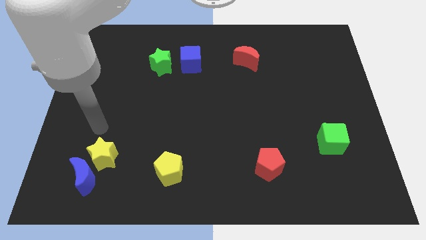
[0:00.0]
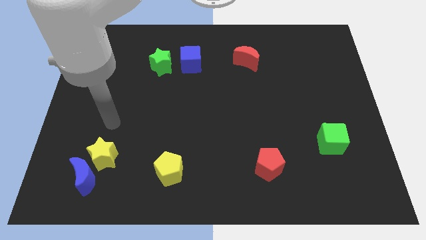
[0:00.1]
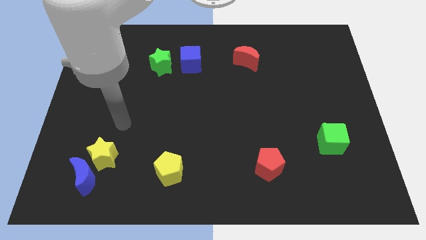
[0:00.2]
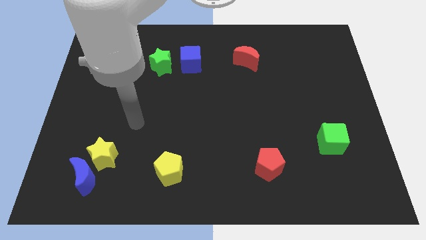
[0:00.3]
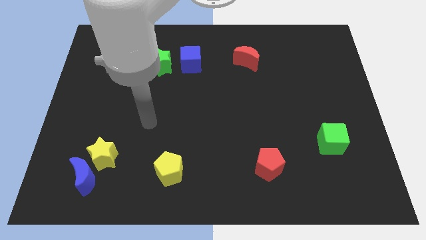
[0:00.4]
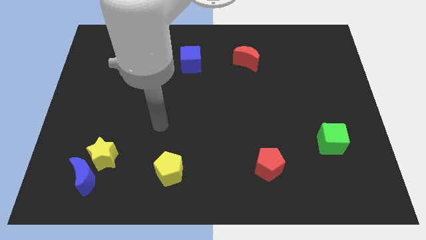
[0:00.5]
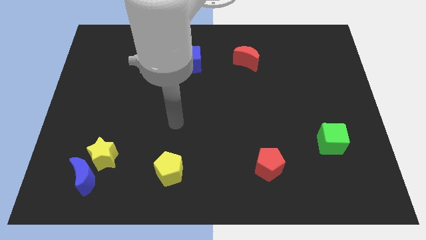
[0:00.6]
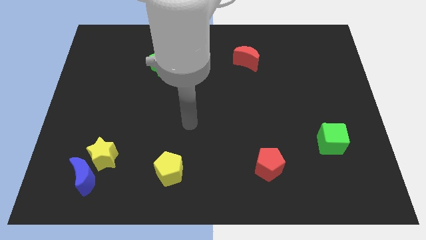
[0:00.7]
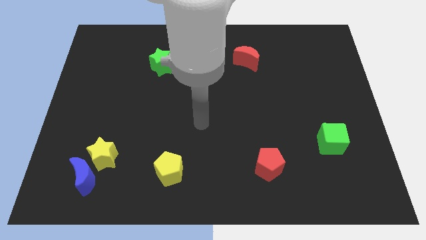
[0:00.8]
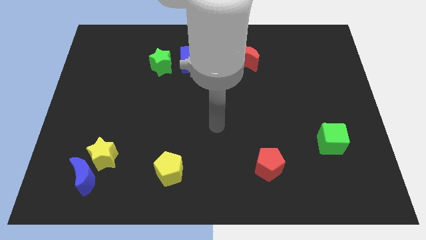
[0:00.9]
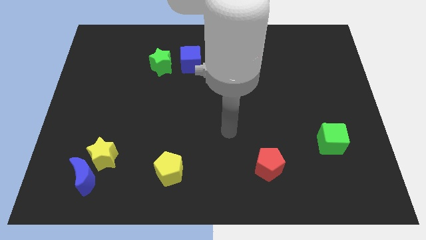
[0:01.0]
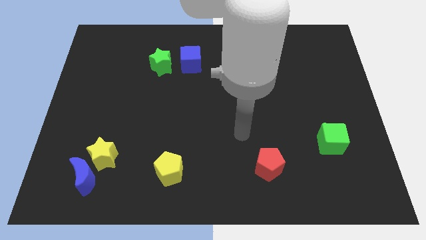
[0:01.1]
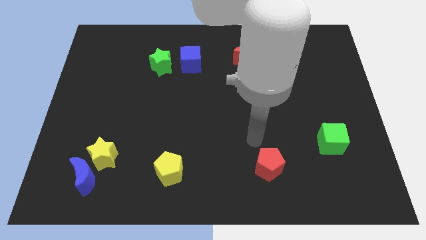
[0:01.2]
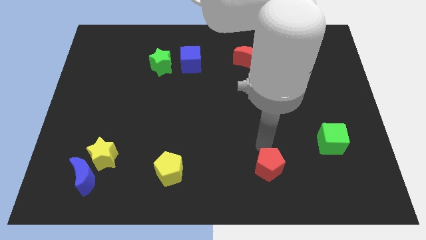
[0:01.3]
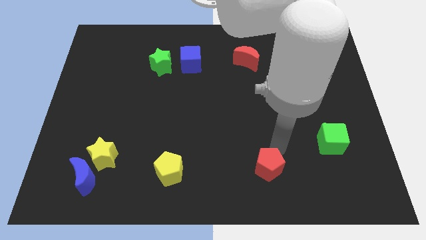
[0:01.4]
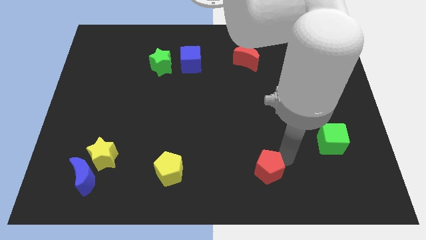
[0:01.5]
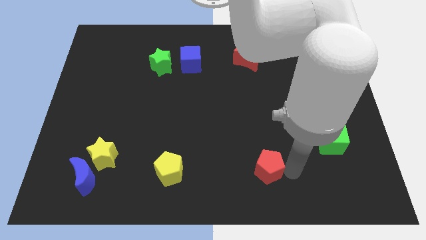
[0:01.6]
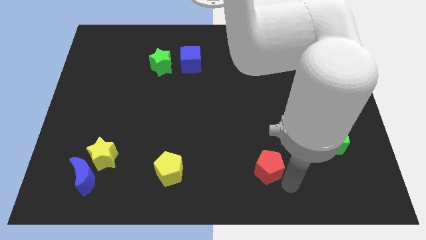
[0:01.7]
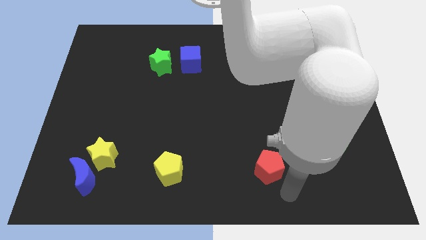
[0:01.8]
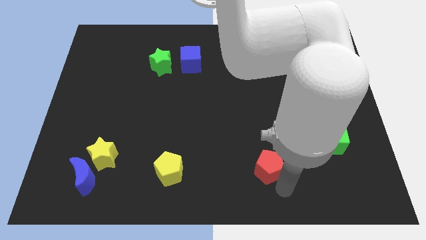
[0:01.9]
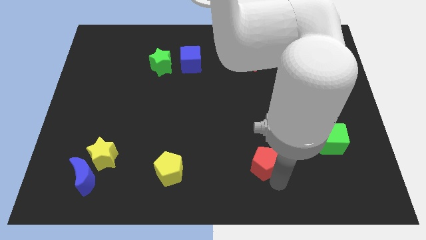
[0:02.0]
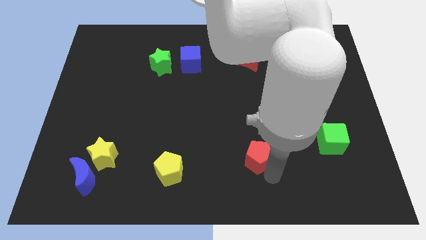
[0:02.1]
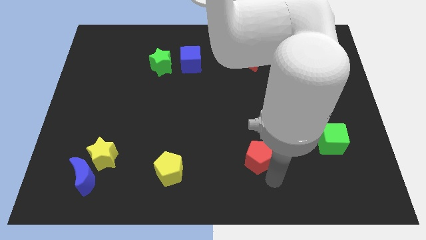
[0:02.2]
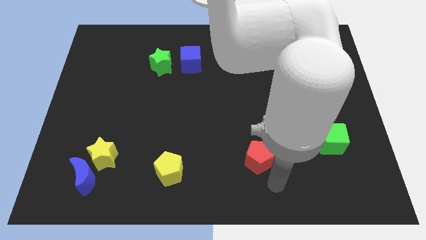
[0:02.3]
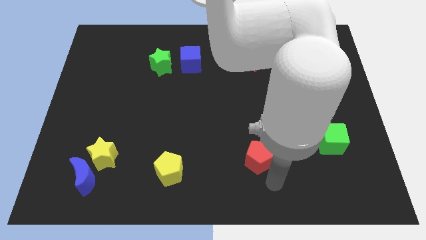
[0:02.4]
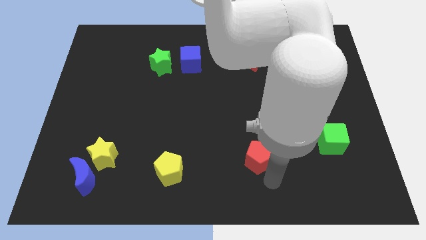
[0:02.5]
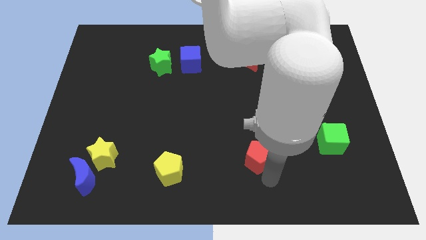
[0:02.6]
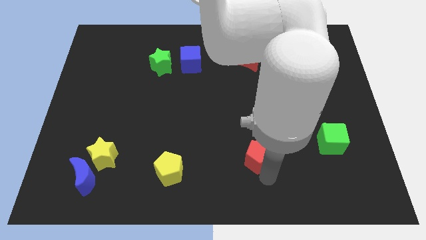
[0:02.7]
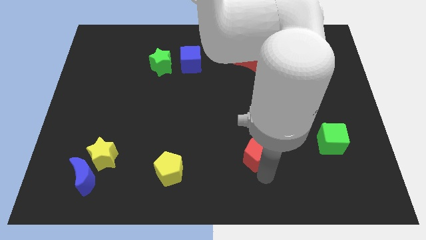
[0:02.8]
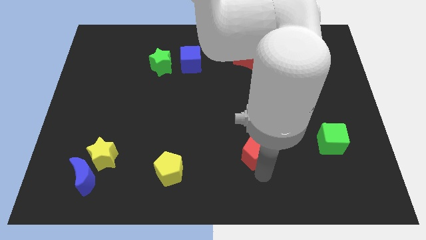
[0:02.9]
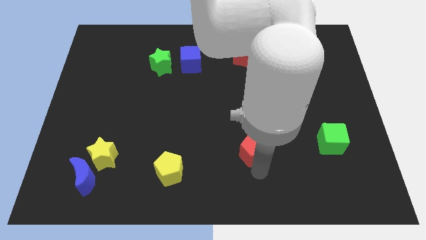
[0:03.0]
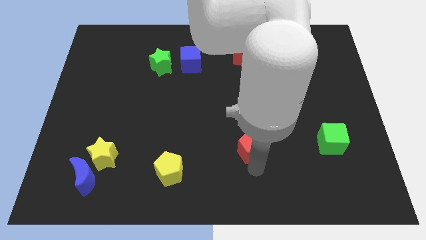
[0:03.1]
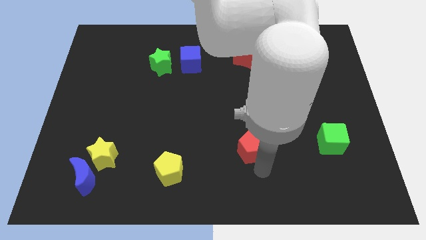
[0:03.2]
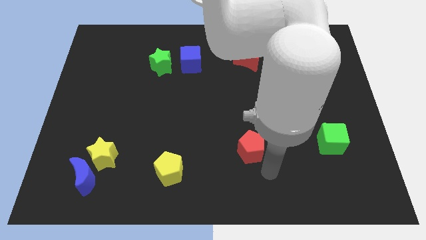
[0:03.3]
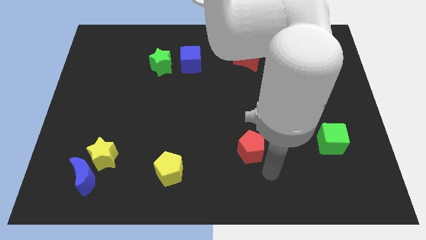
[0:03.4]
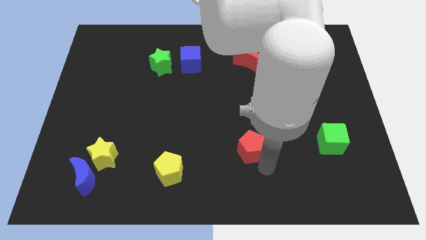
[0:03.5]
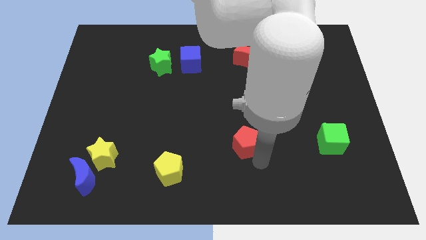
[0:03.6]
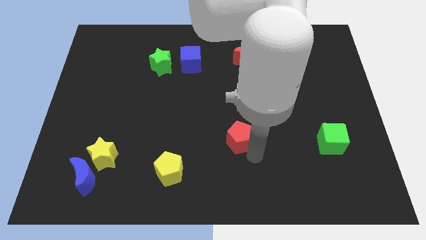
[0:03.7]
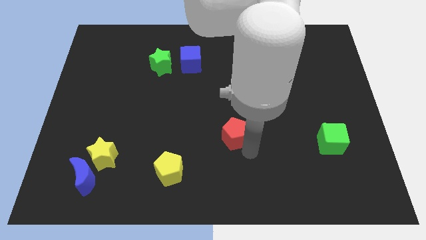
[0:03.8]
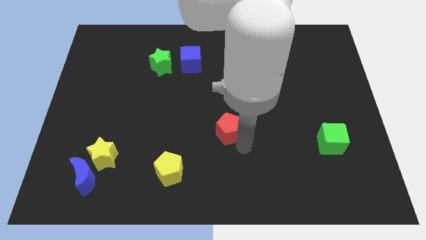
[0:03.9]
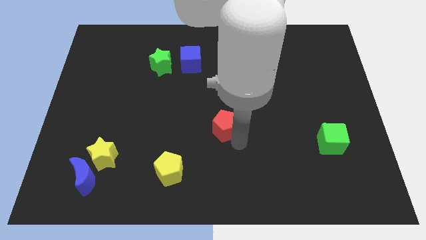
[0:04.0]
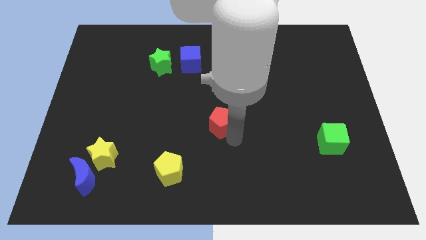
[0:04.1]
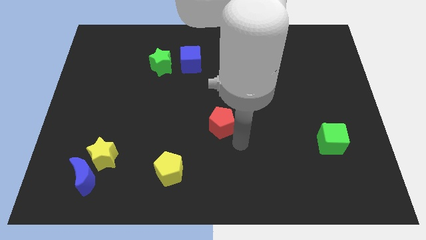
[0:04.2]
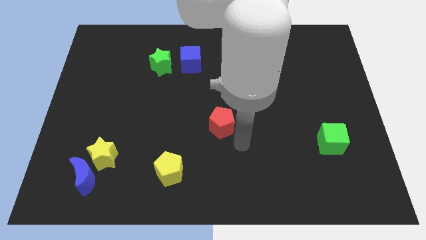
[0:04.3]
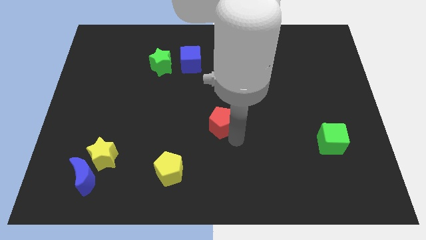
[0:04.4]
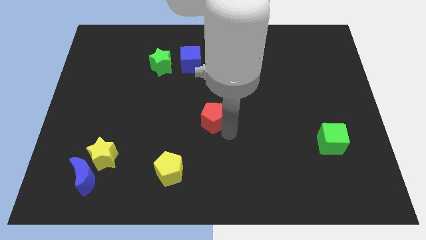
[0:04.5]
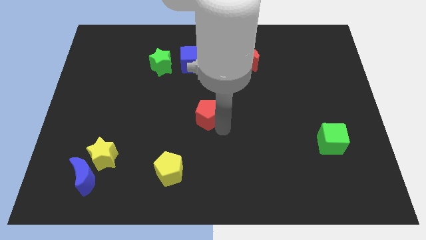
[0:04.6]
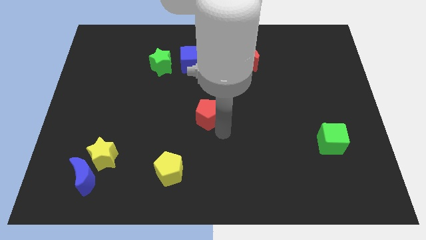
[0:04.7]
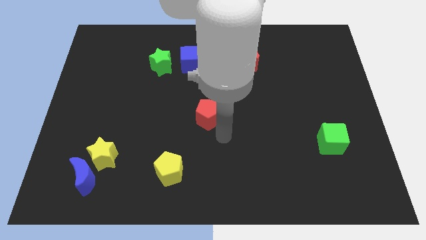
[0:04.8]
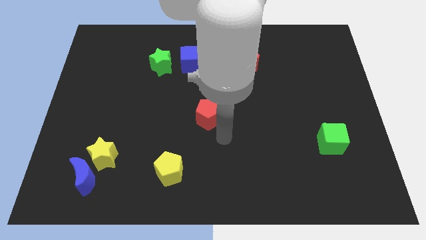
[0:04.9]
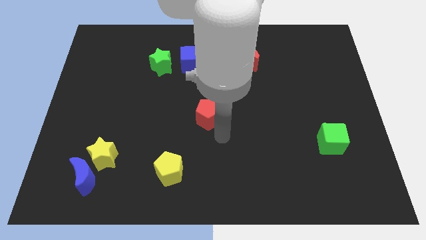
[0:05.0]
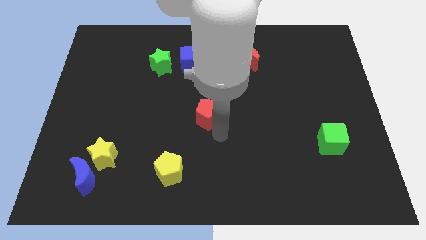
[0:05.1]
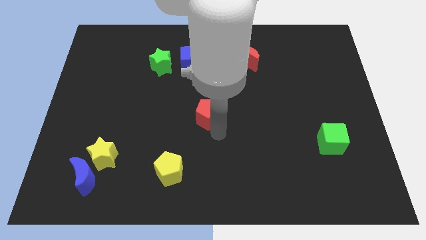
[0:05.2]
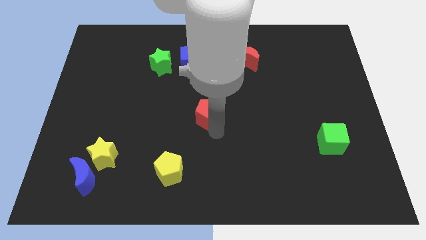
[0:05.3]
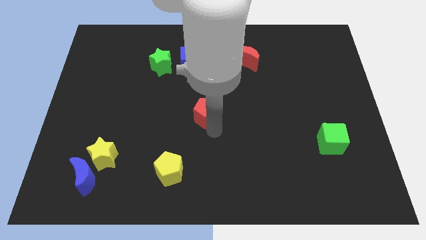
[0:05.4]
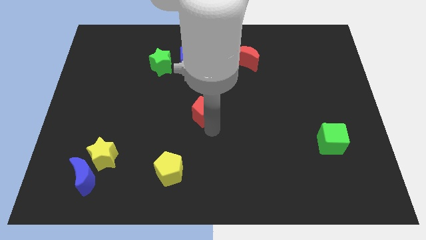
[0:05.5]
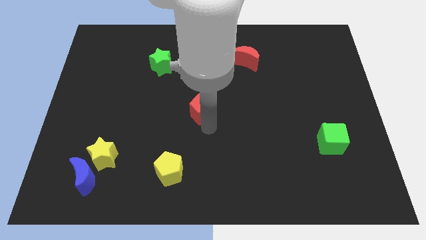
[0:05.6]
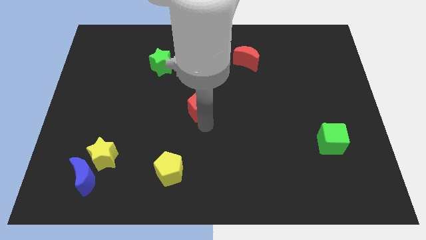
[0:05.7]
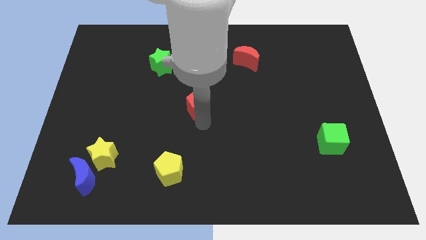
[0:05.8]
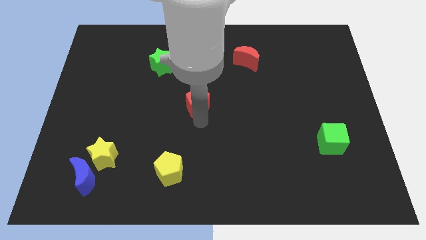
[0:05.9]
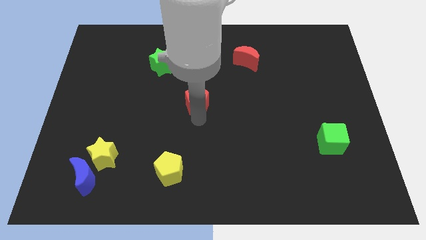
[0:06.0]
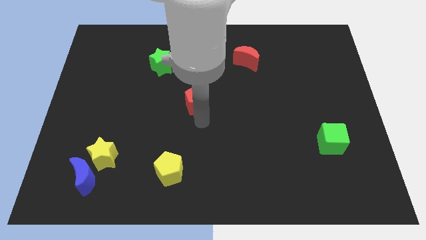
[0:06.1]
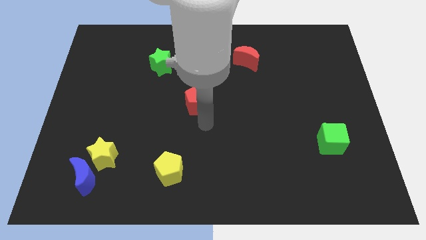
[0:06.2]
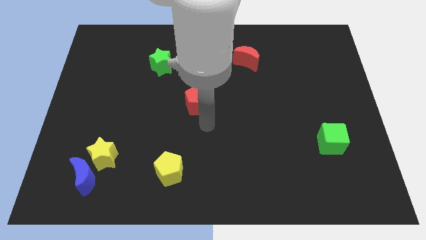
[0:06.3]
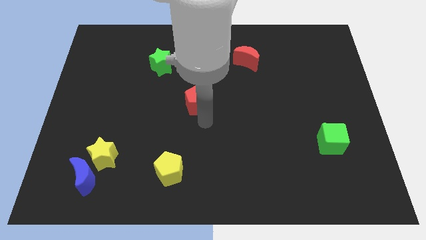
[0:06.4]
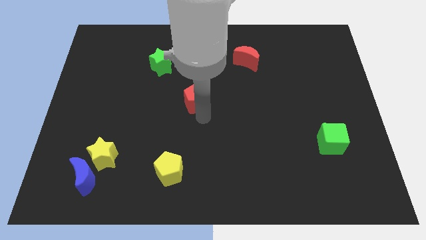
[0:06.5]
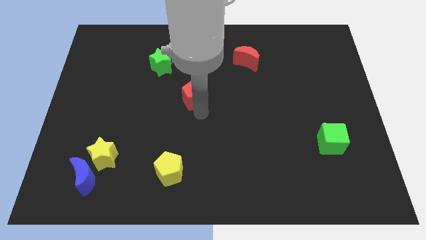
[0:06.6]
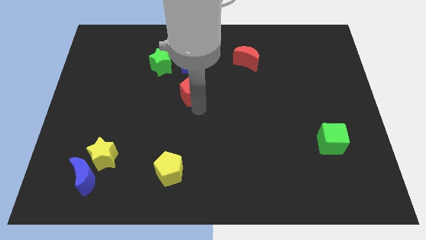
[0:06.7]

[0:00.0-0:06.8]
put the red pentagon diagonally down and to the right of the green star

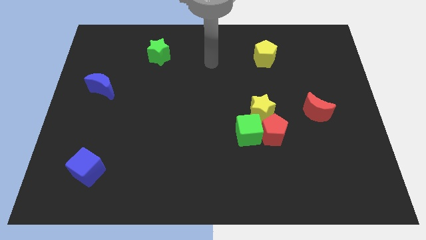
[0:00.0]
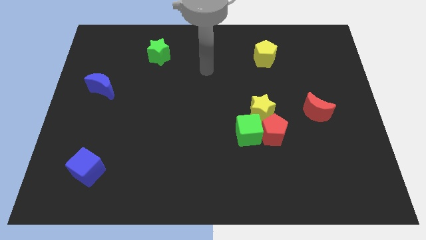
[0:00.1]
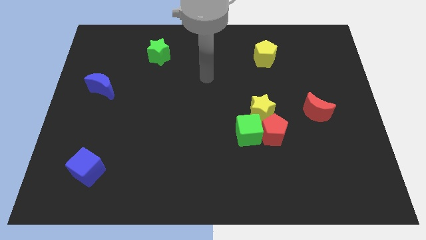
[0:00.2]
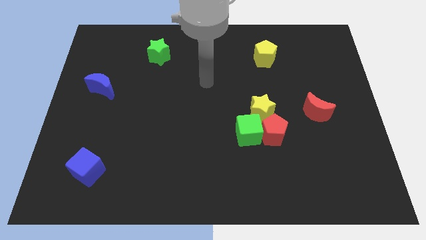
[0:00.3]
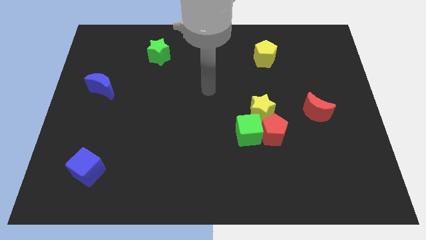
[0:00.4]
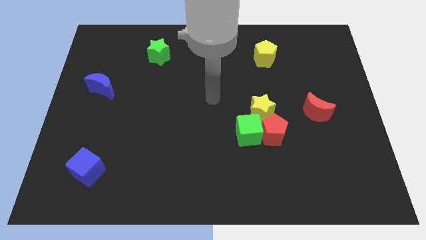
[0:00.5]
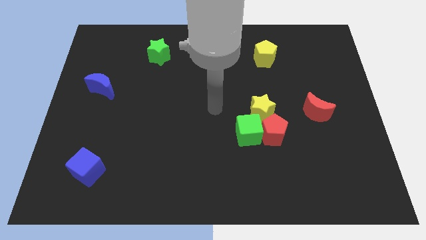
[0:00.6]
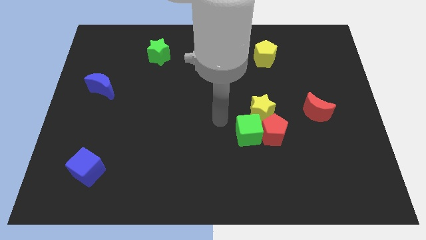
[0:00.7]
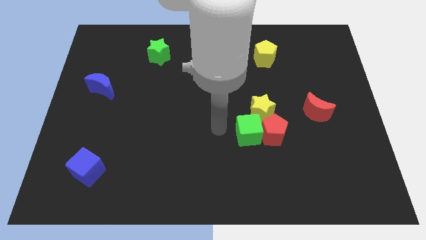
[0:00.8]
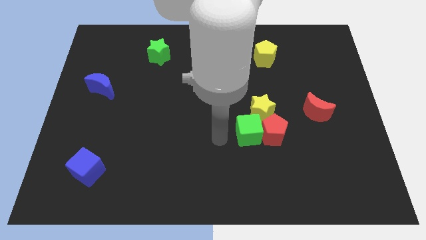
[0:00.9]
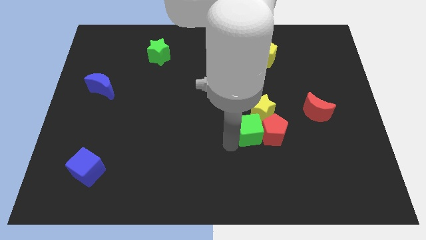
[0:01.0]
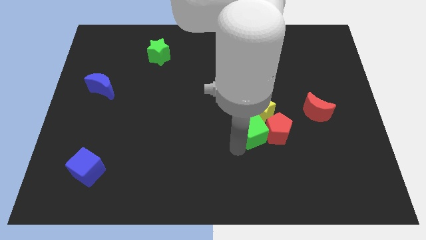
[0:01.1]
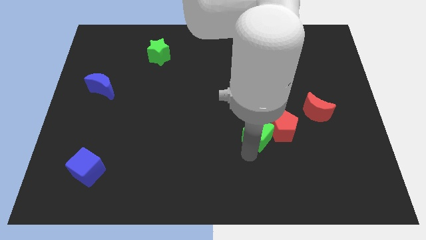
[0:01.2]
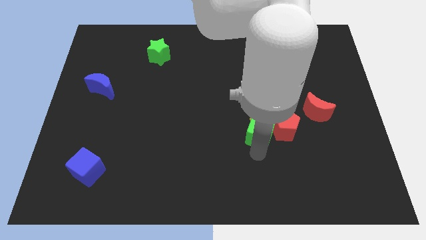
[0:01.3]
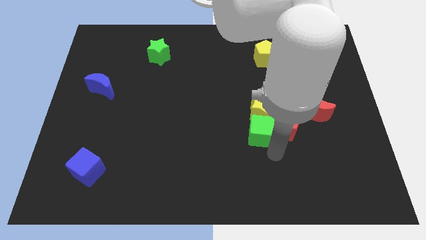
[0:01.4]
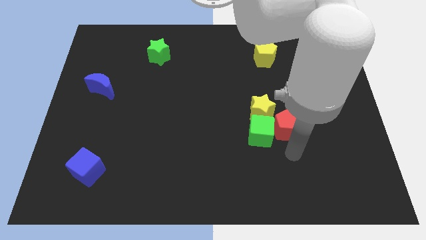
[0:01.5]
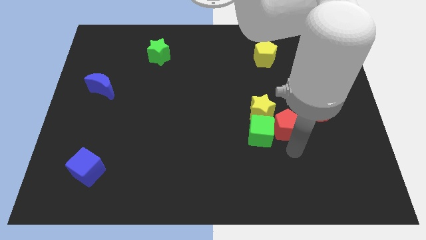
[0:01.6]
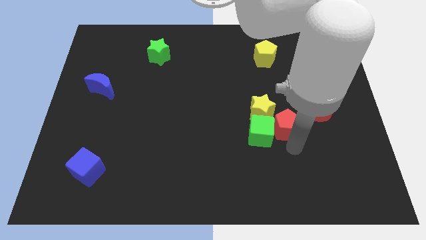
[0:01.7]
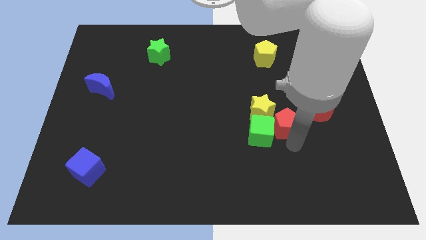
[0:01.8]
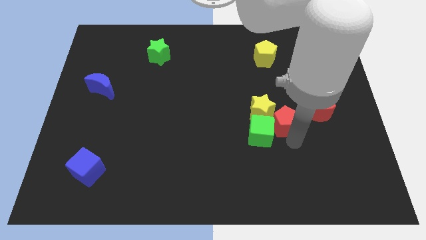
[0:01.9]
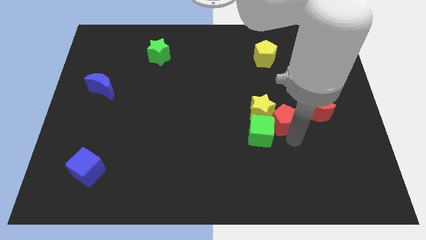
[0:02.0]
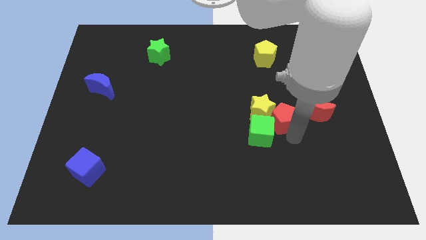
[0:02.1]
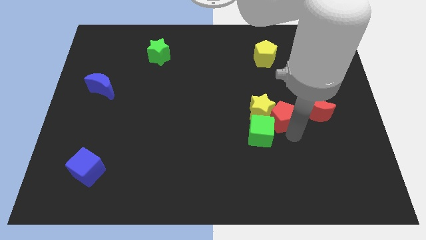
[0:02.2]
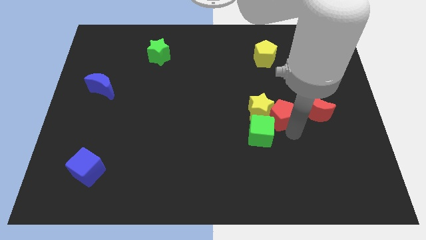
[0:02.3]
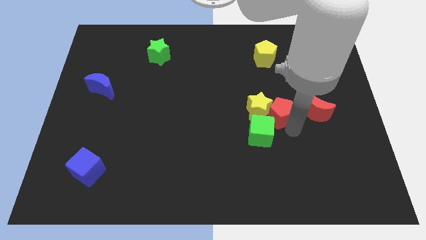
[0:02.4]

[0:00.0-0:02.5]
move the red pentagon to the top right side of the yellow star
